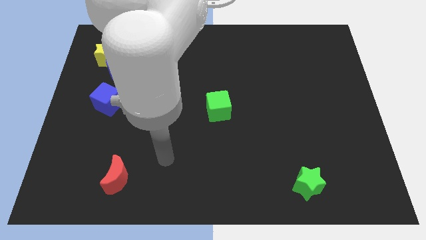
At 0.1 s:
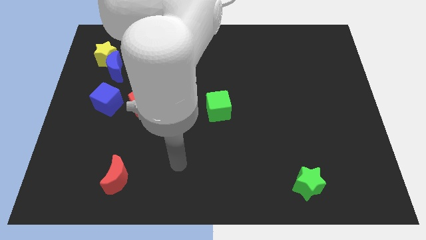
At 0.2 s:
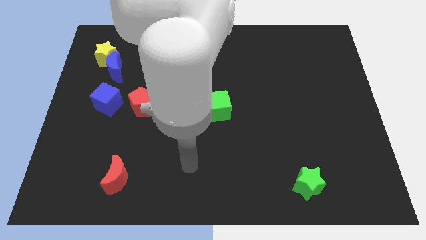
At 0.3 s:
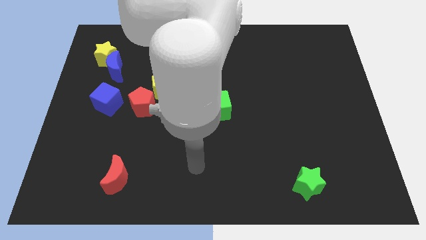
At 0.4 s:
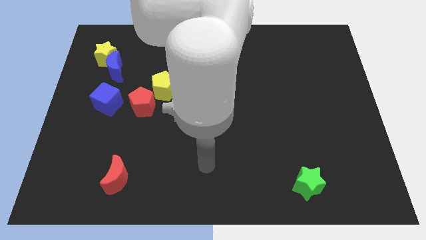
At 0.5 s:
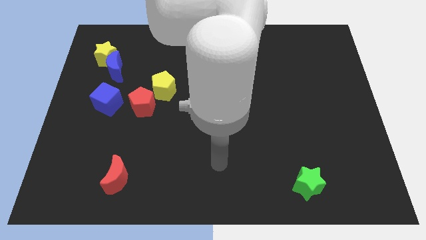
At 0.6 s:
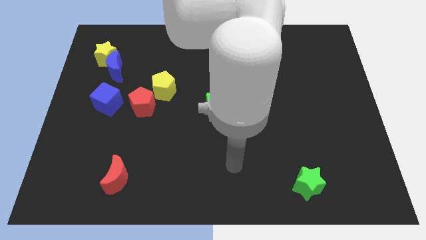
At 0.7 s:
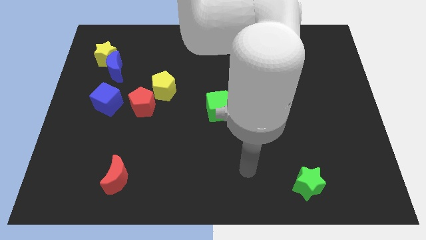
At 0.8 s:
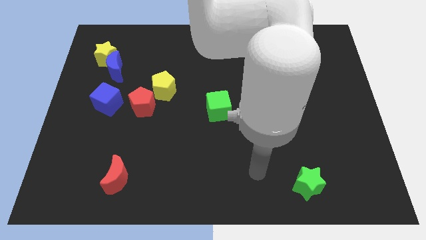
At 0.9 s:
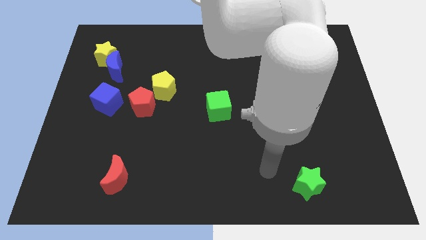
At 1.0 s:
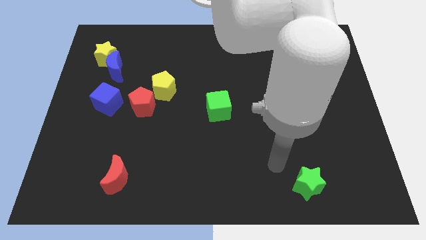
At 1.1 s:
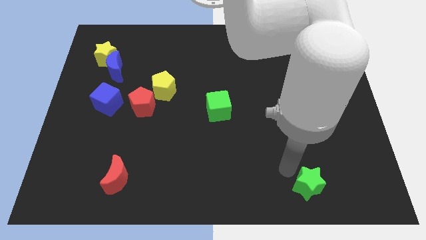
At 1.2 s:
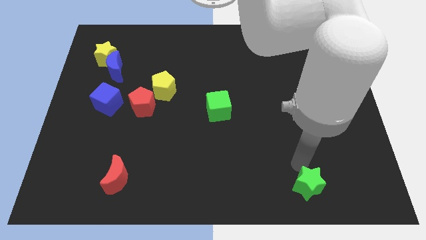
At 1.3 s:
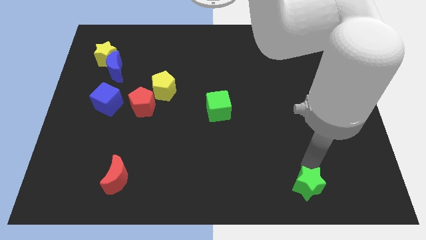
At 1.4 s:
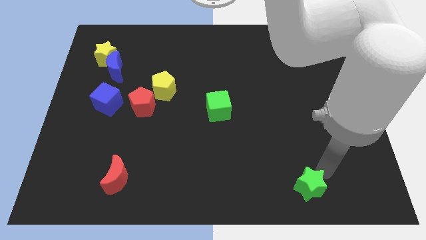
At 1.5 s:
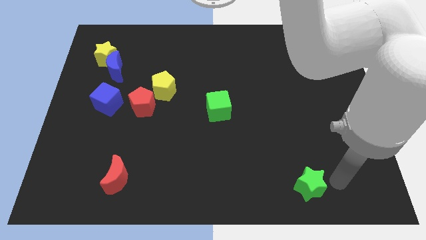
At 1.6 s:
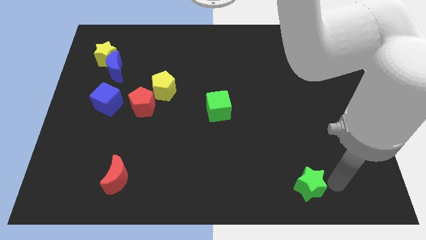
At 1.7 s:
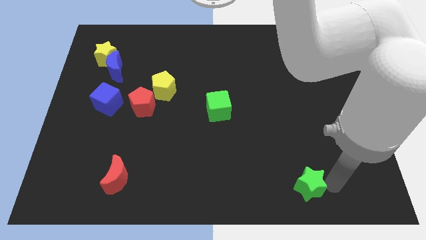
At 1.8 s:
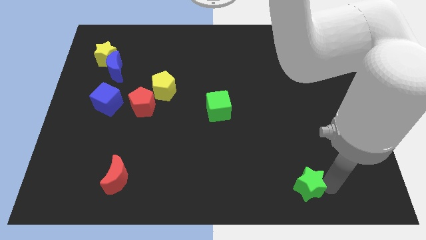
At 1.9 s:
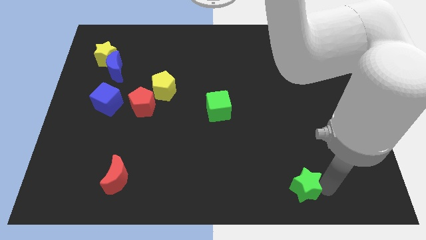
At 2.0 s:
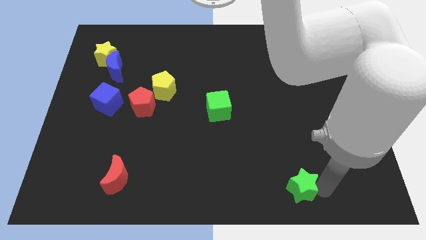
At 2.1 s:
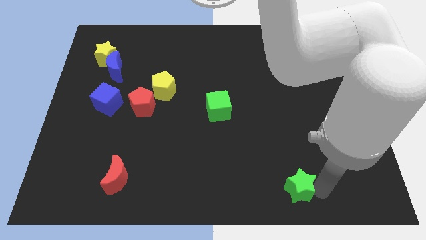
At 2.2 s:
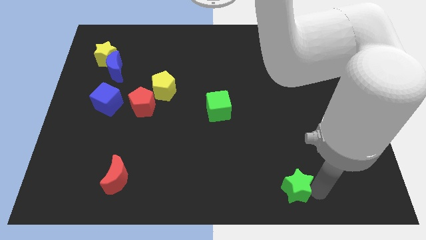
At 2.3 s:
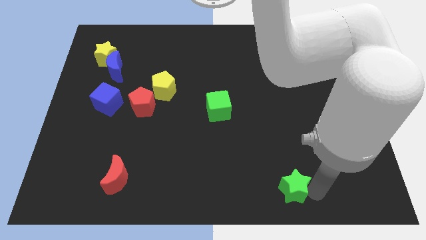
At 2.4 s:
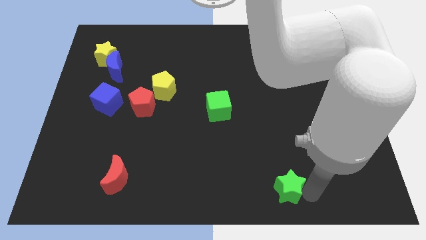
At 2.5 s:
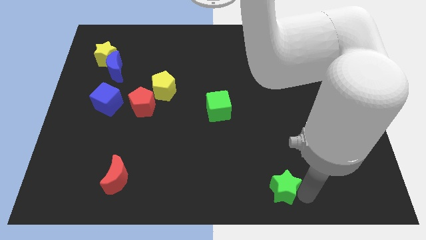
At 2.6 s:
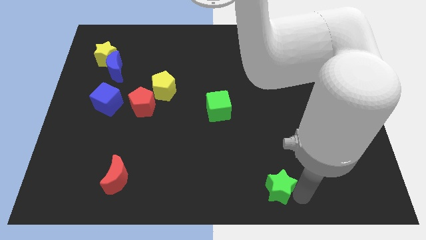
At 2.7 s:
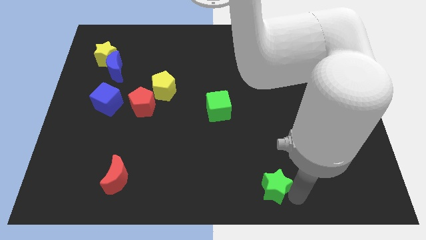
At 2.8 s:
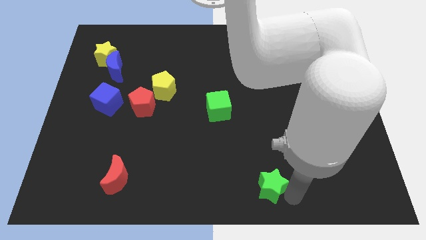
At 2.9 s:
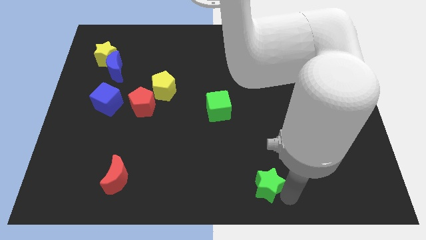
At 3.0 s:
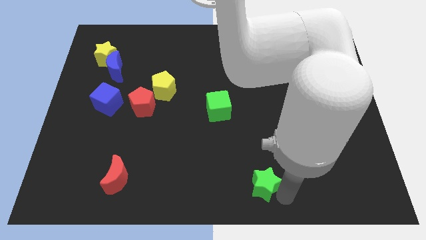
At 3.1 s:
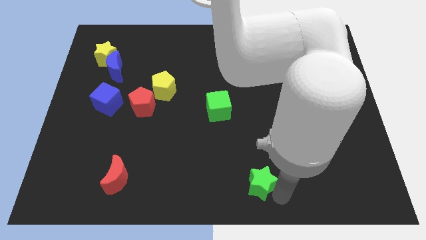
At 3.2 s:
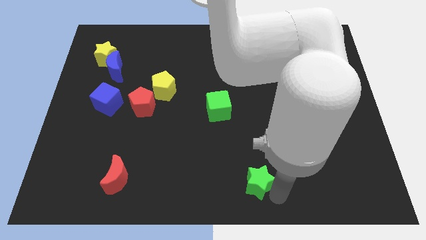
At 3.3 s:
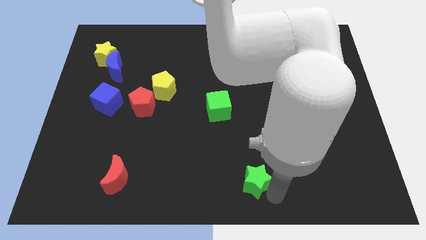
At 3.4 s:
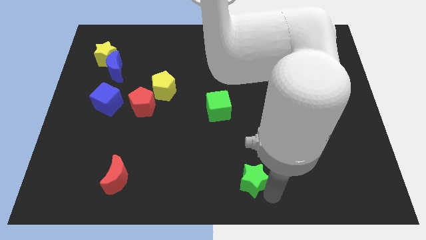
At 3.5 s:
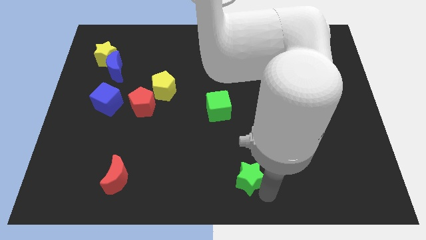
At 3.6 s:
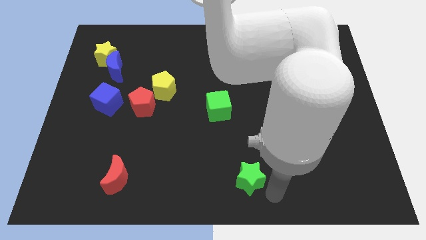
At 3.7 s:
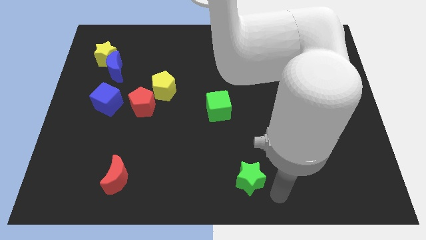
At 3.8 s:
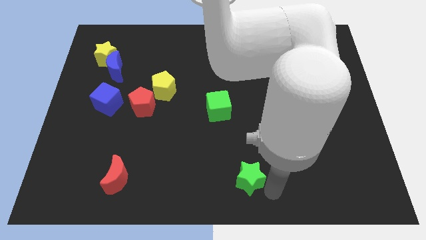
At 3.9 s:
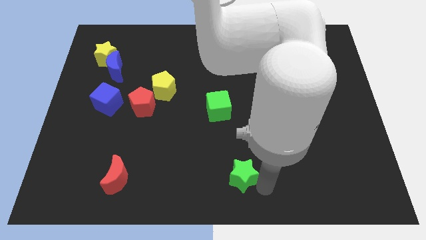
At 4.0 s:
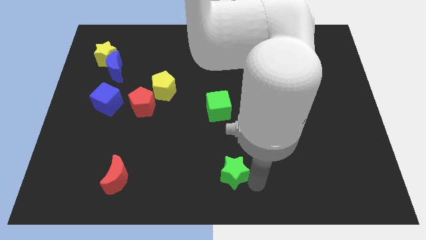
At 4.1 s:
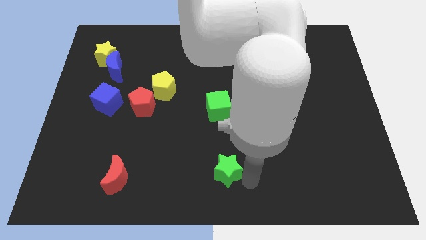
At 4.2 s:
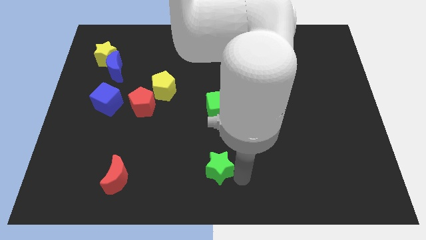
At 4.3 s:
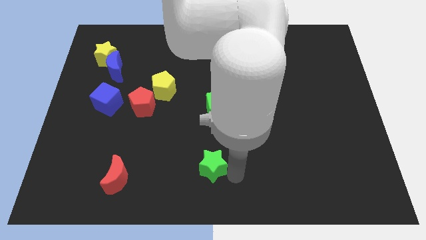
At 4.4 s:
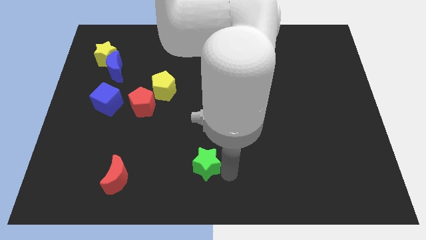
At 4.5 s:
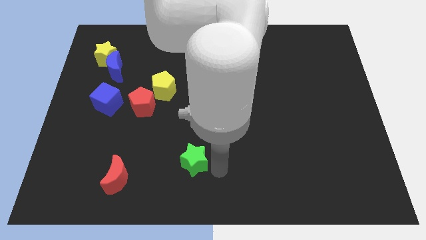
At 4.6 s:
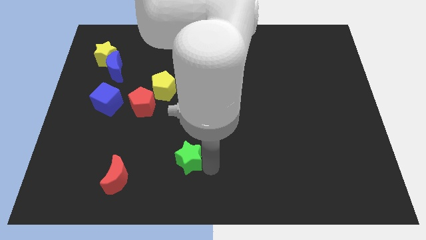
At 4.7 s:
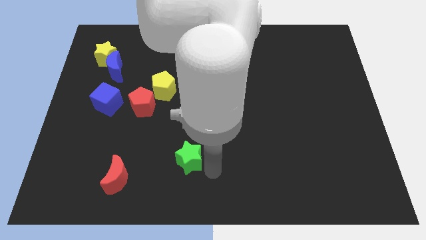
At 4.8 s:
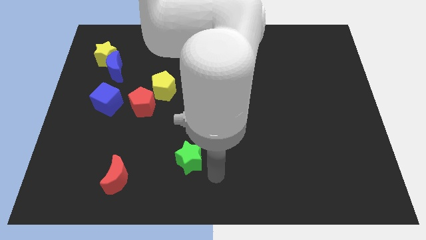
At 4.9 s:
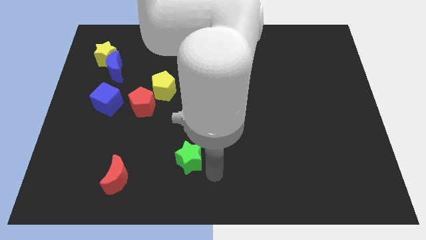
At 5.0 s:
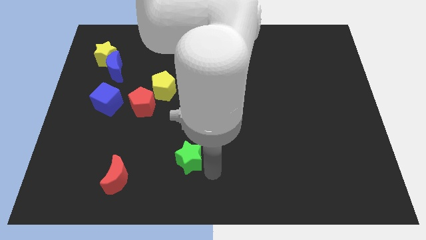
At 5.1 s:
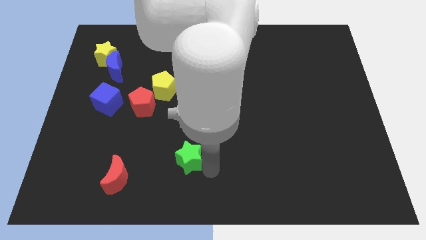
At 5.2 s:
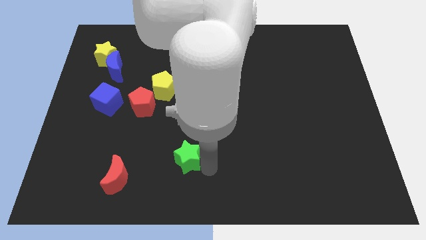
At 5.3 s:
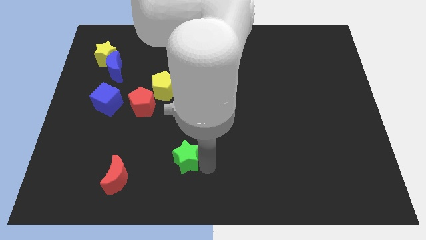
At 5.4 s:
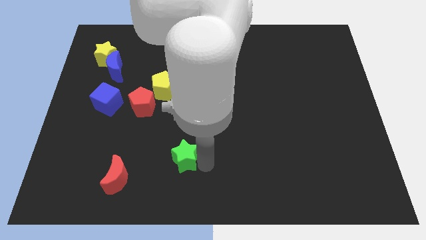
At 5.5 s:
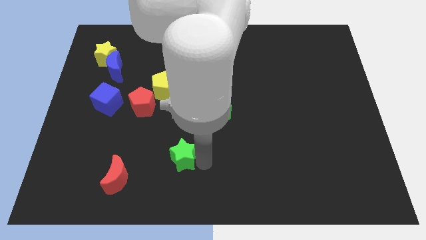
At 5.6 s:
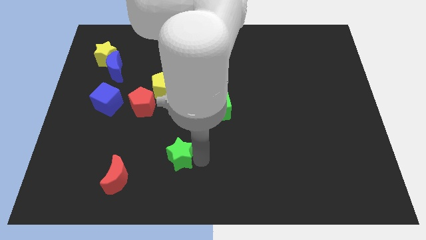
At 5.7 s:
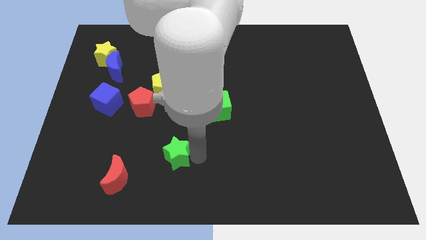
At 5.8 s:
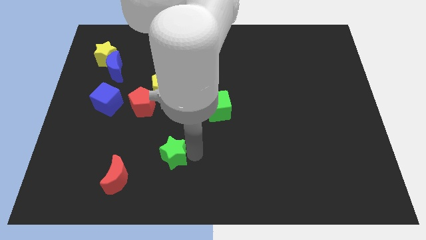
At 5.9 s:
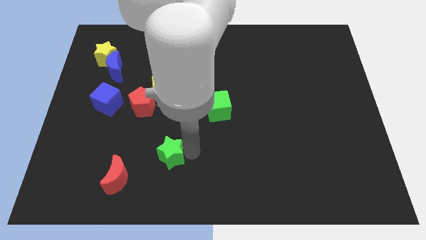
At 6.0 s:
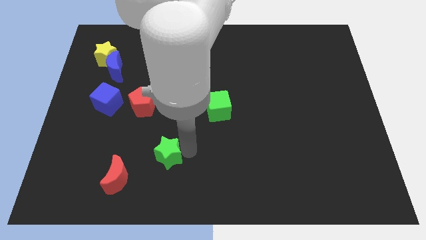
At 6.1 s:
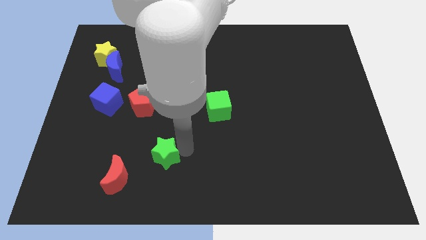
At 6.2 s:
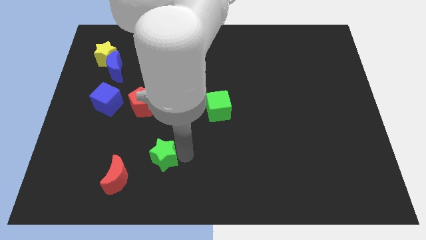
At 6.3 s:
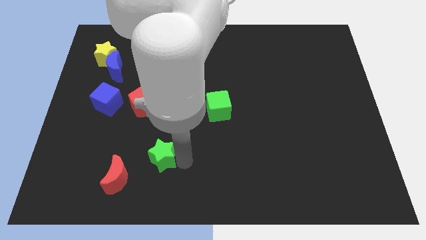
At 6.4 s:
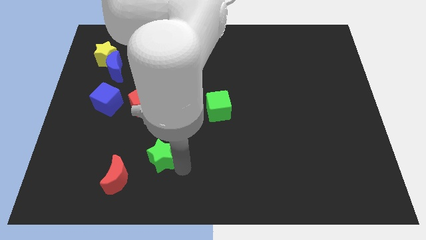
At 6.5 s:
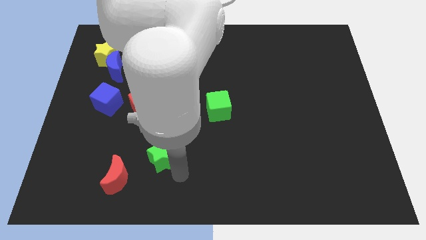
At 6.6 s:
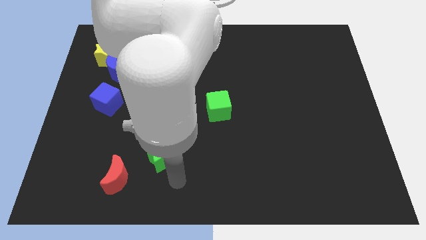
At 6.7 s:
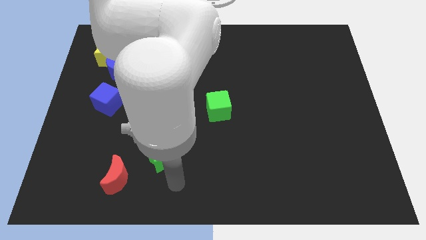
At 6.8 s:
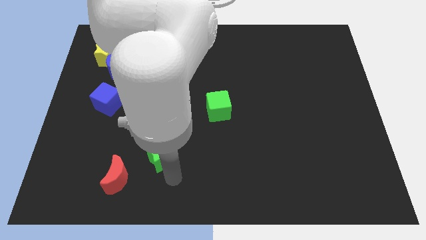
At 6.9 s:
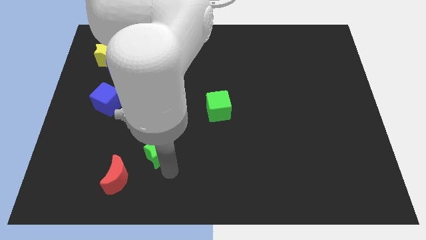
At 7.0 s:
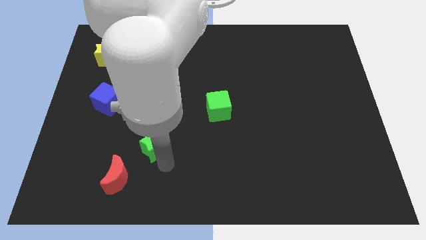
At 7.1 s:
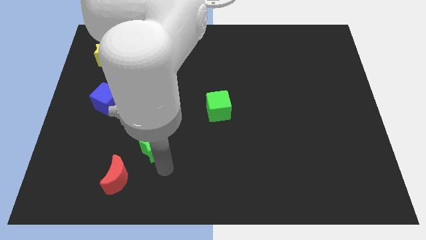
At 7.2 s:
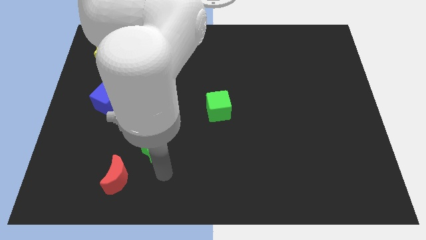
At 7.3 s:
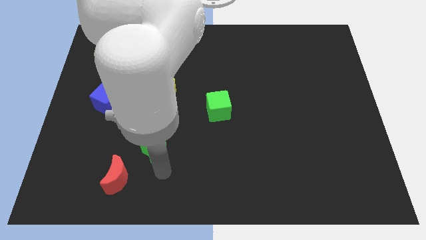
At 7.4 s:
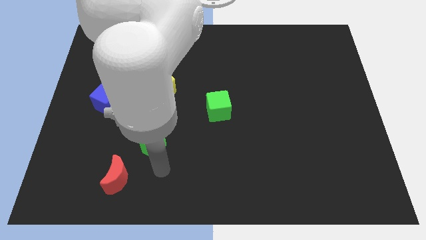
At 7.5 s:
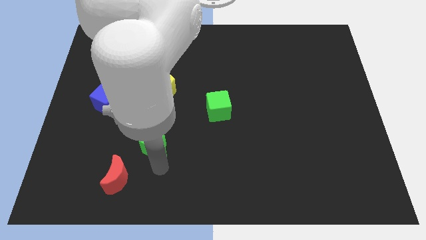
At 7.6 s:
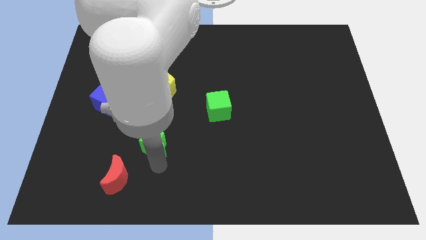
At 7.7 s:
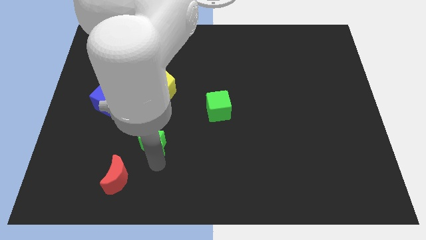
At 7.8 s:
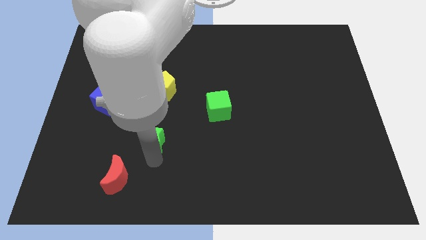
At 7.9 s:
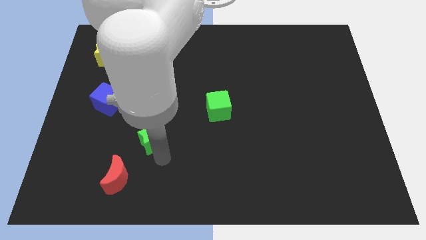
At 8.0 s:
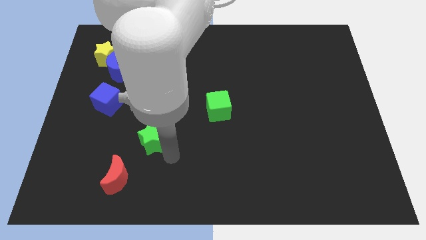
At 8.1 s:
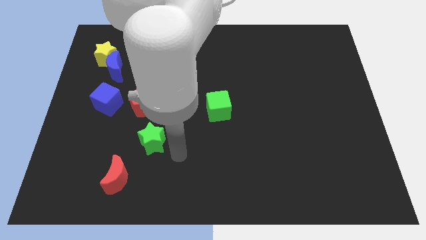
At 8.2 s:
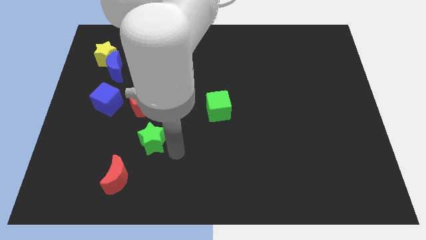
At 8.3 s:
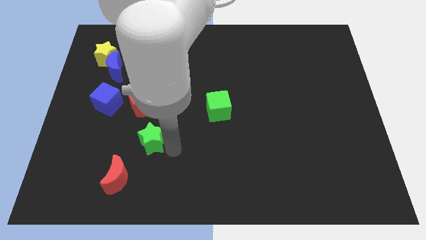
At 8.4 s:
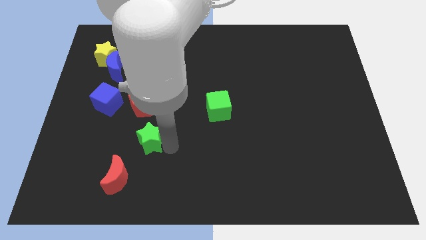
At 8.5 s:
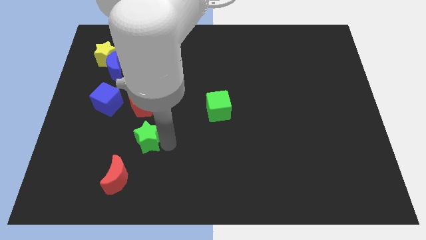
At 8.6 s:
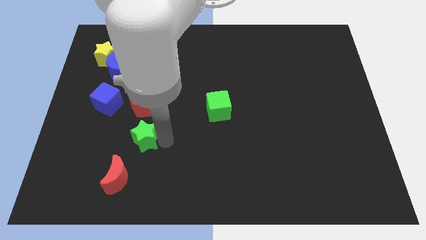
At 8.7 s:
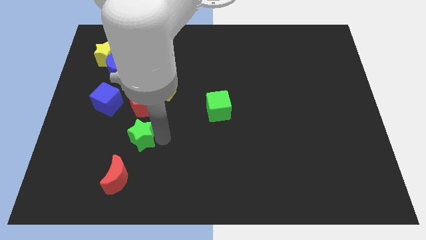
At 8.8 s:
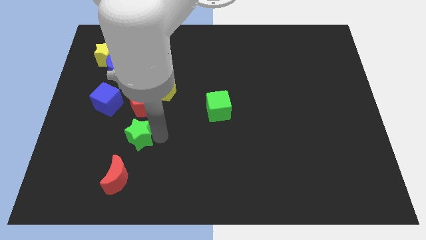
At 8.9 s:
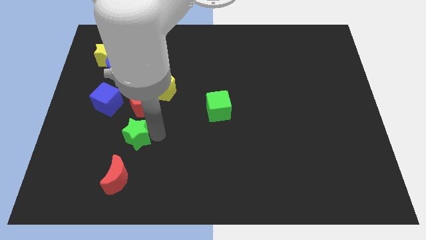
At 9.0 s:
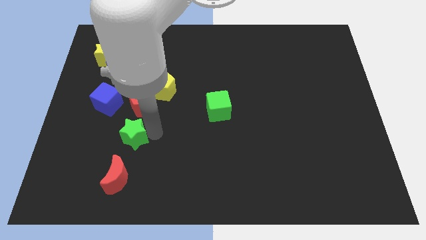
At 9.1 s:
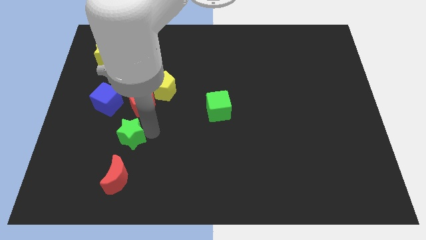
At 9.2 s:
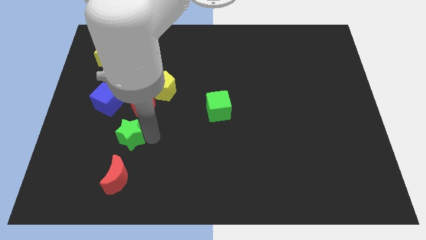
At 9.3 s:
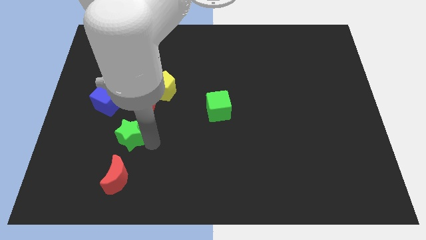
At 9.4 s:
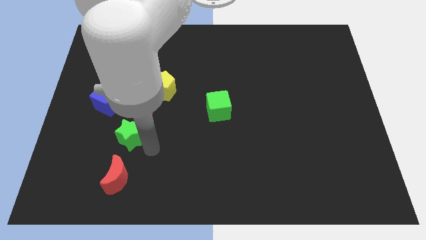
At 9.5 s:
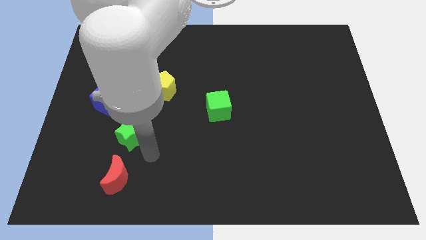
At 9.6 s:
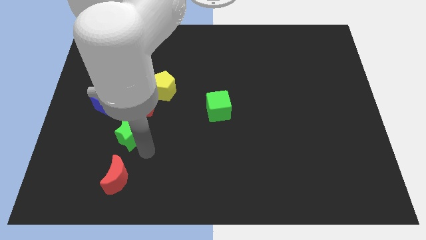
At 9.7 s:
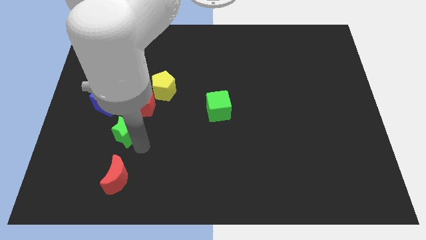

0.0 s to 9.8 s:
put the green star to the bottom left side of the red pentagon
